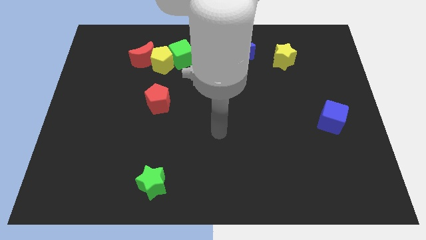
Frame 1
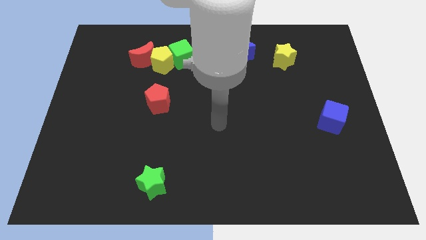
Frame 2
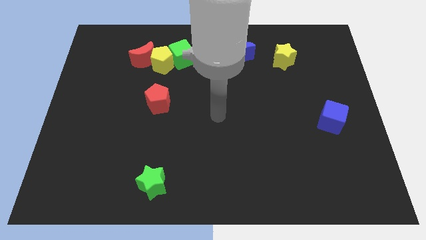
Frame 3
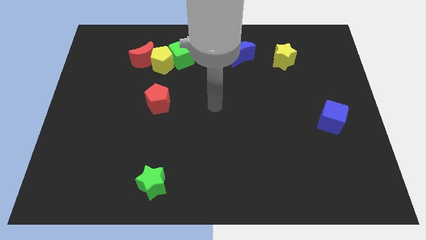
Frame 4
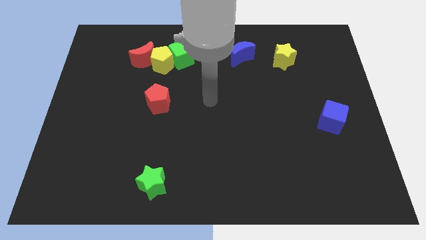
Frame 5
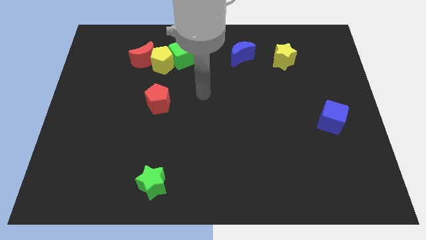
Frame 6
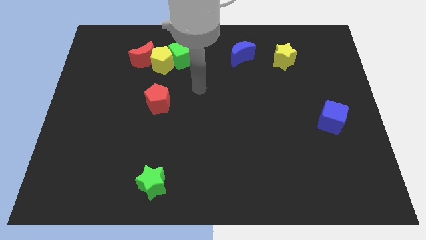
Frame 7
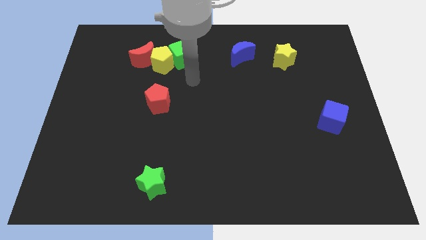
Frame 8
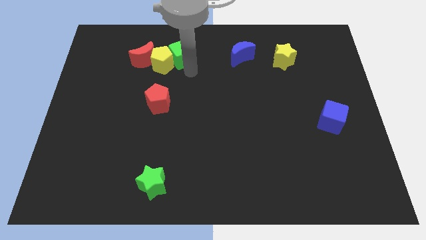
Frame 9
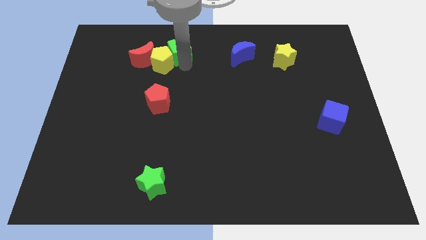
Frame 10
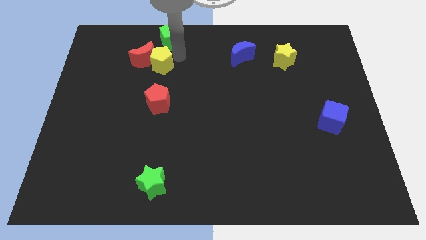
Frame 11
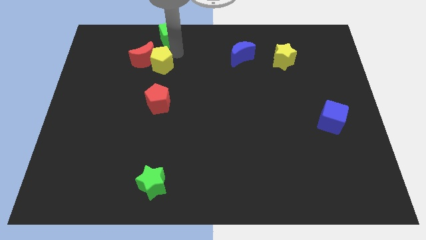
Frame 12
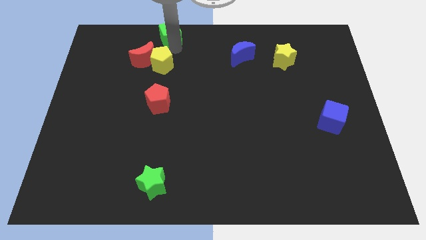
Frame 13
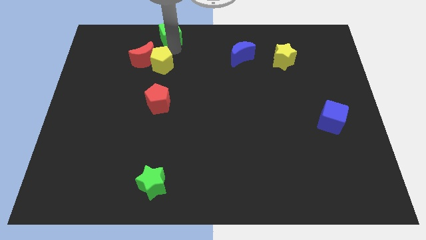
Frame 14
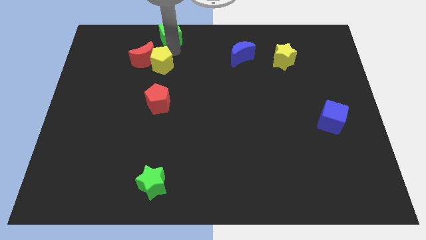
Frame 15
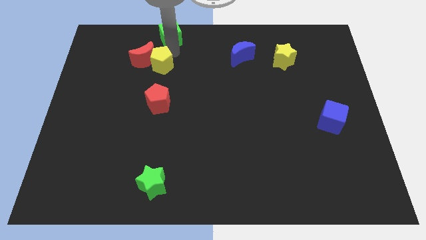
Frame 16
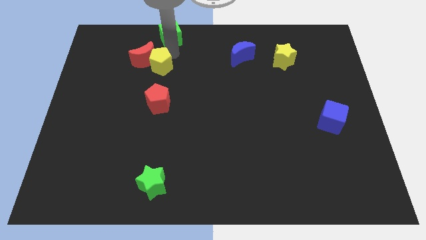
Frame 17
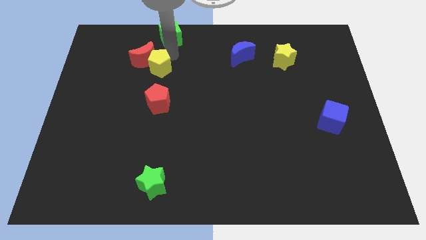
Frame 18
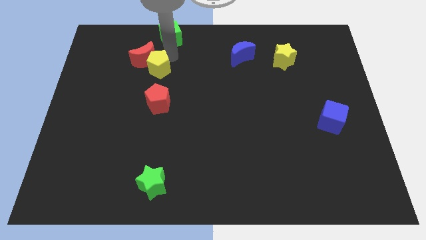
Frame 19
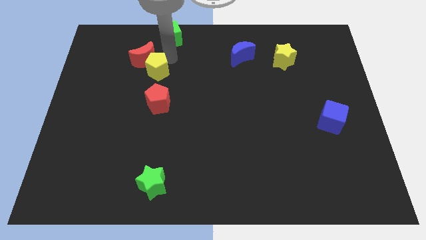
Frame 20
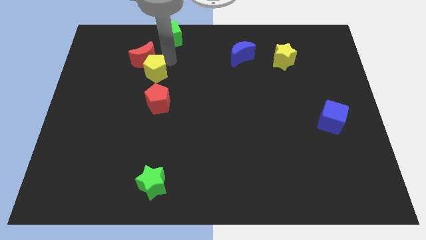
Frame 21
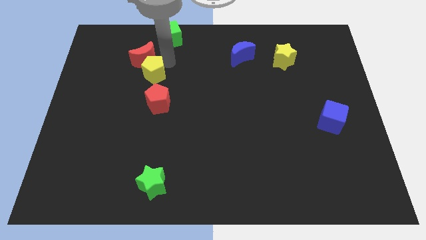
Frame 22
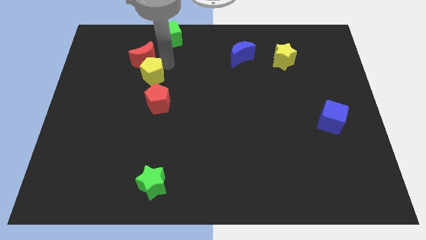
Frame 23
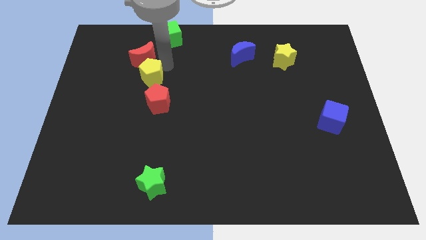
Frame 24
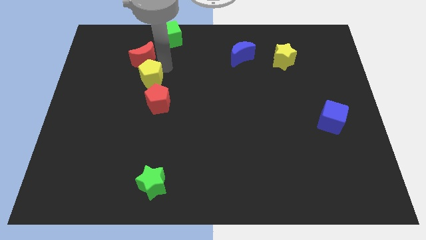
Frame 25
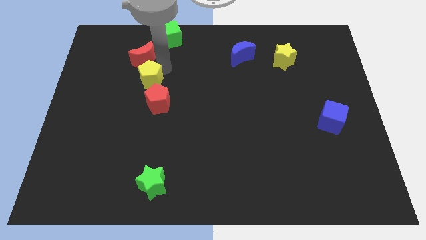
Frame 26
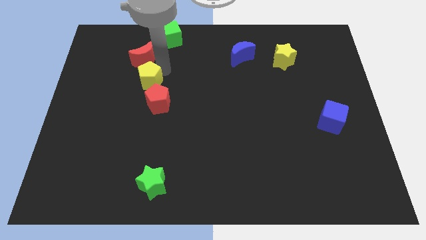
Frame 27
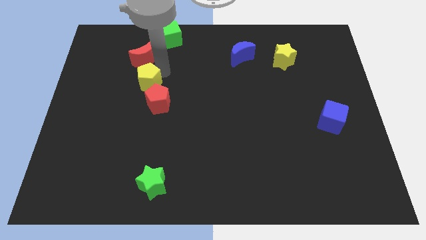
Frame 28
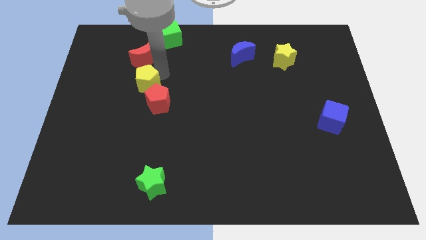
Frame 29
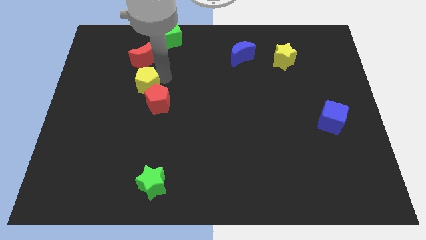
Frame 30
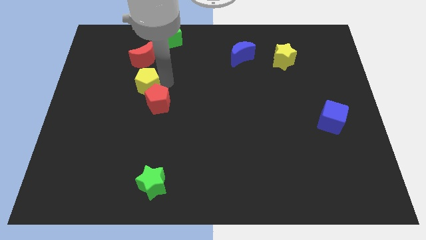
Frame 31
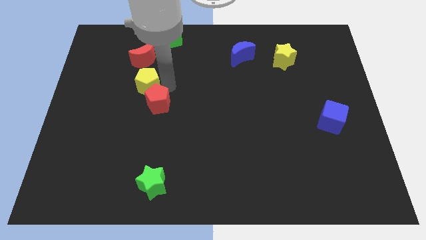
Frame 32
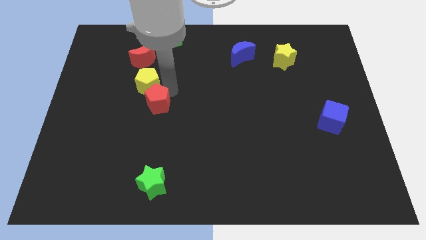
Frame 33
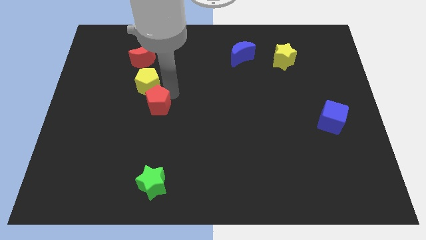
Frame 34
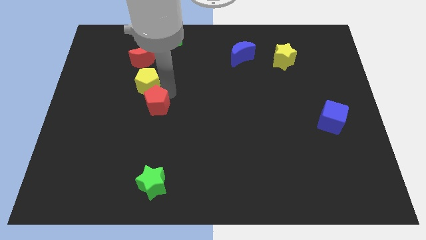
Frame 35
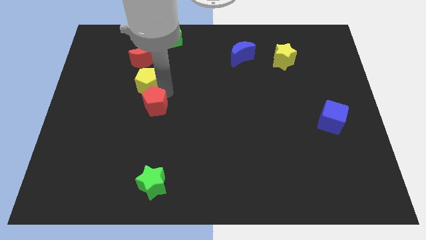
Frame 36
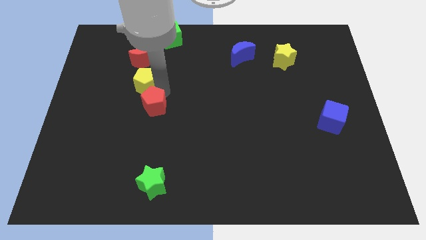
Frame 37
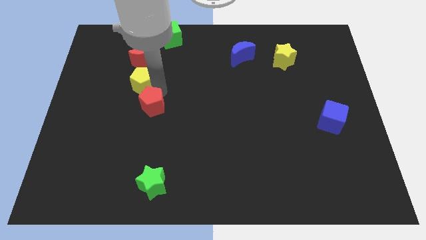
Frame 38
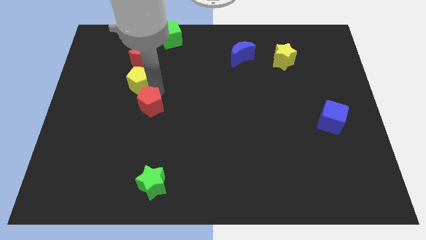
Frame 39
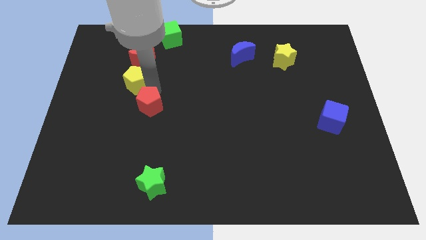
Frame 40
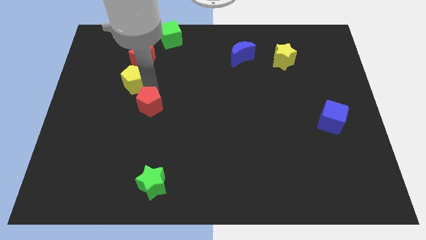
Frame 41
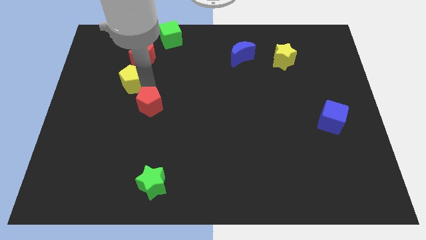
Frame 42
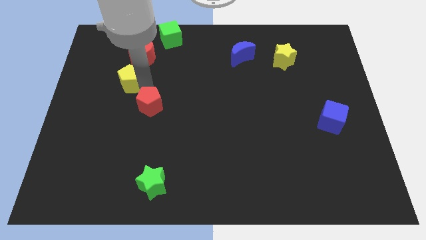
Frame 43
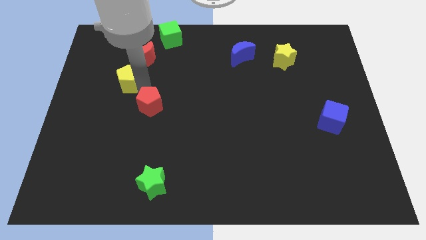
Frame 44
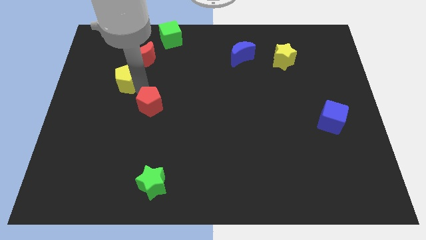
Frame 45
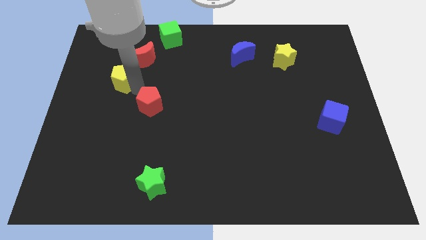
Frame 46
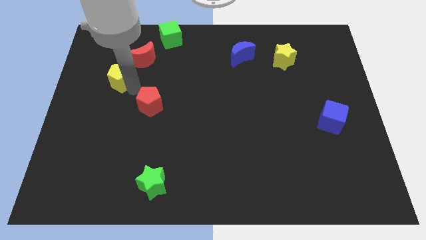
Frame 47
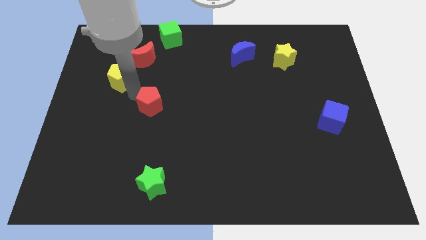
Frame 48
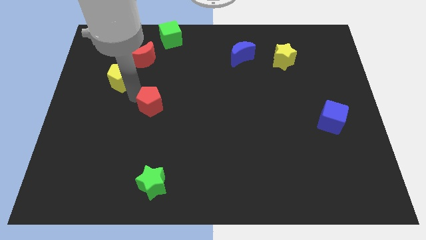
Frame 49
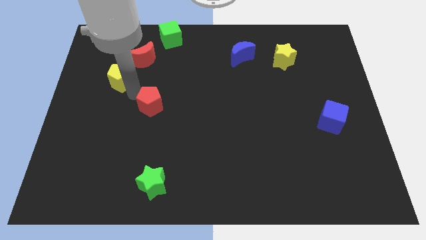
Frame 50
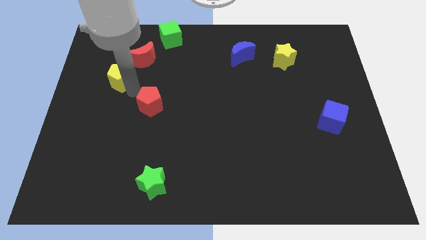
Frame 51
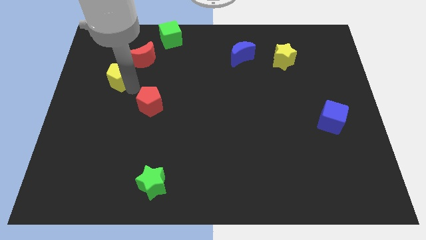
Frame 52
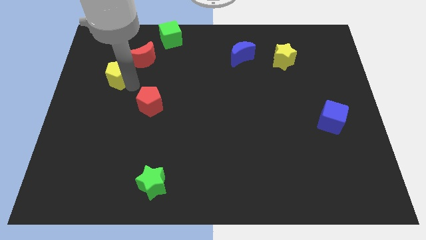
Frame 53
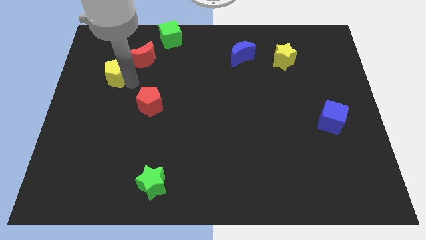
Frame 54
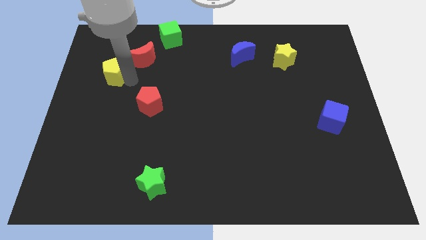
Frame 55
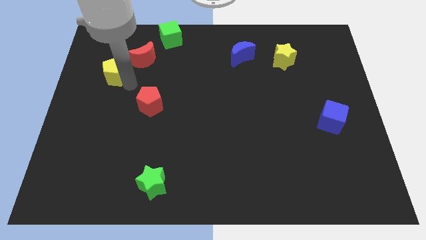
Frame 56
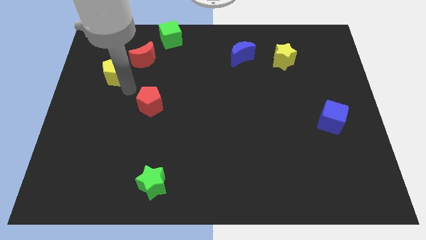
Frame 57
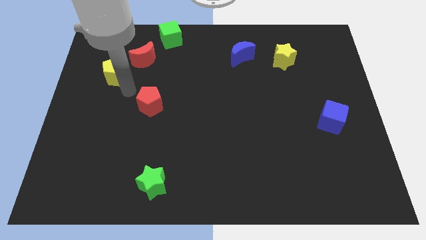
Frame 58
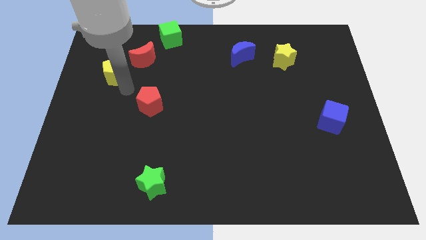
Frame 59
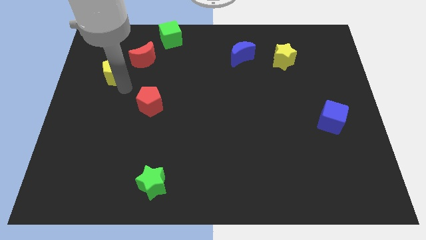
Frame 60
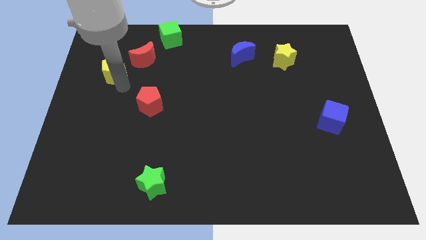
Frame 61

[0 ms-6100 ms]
push the yellow pentagon left of the red moon

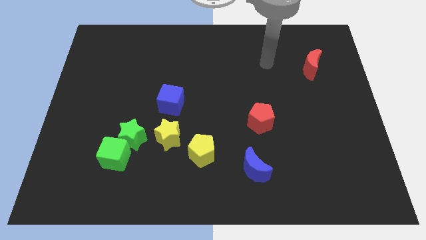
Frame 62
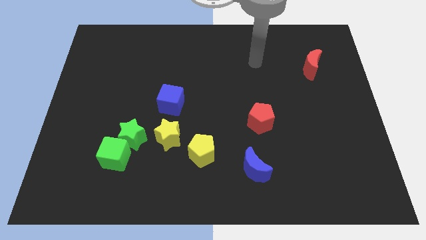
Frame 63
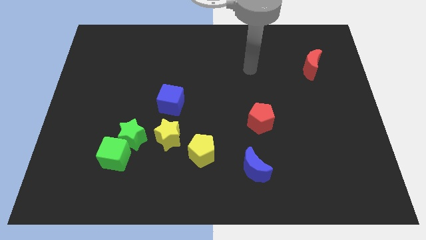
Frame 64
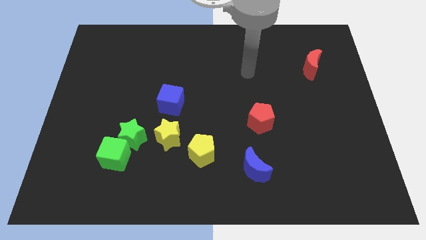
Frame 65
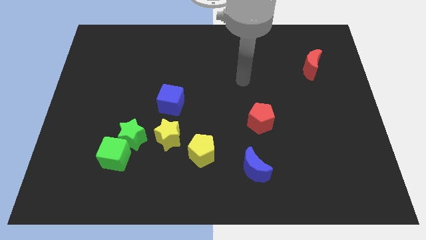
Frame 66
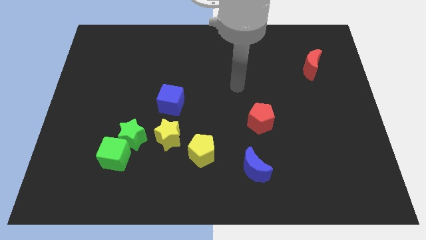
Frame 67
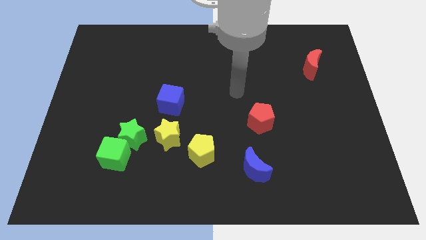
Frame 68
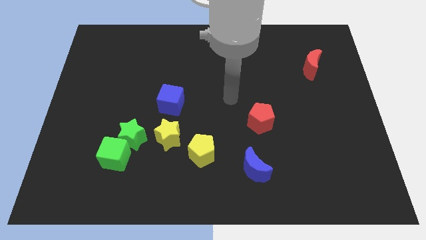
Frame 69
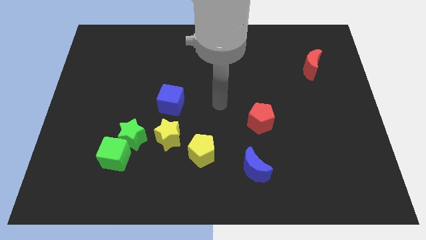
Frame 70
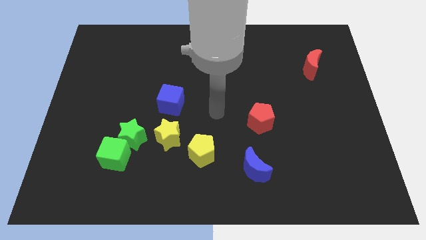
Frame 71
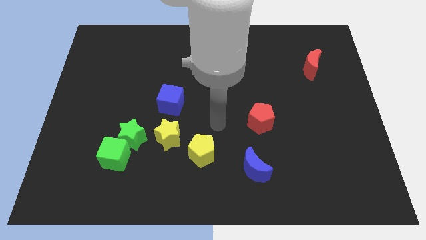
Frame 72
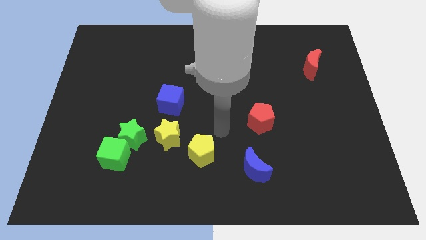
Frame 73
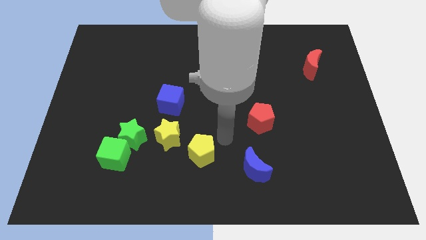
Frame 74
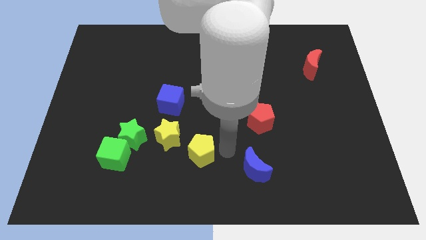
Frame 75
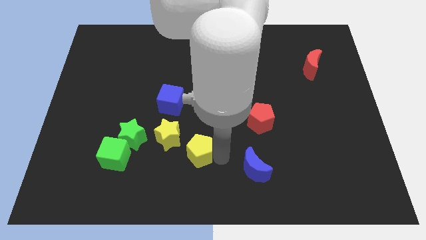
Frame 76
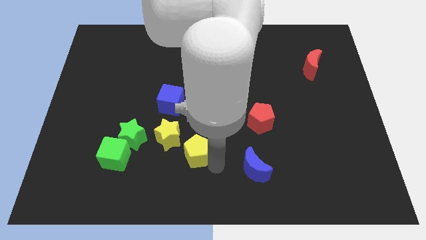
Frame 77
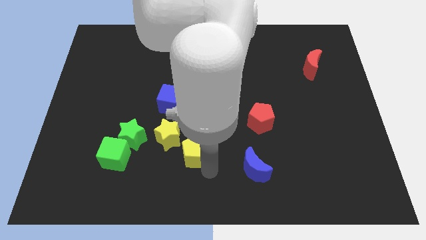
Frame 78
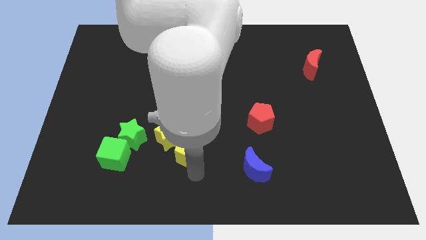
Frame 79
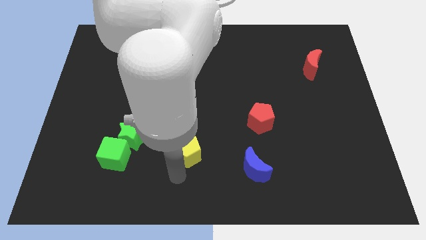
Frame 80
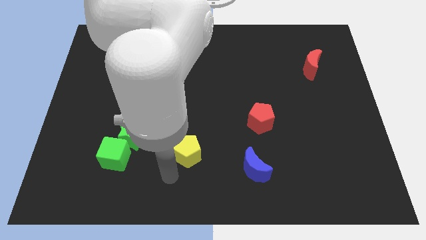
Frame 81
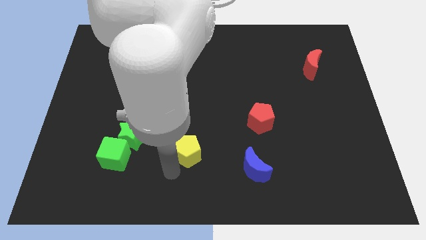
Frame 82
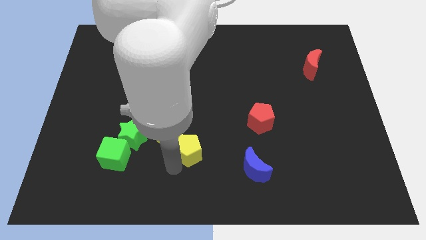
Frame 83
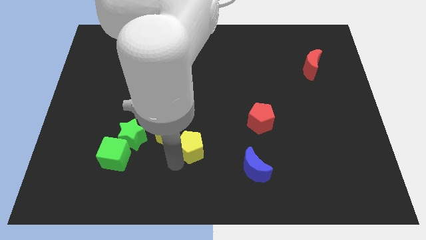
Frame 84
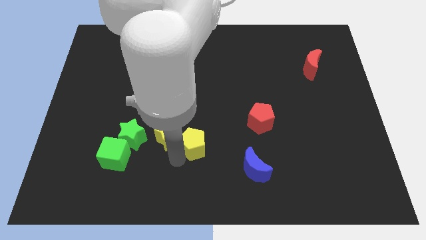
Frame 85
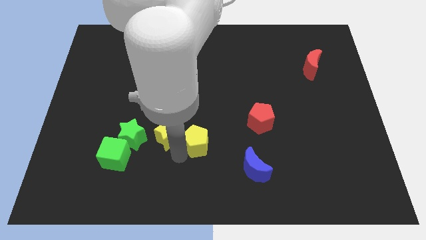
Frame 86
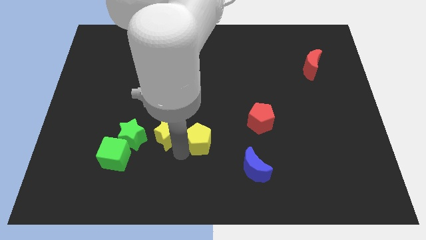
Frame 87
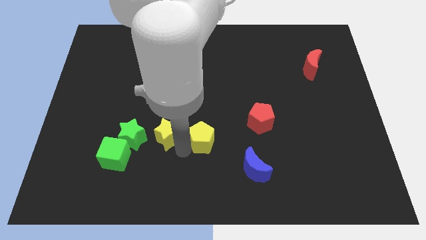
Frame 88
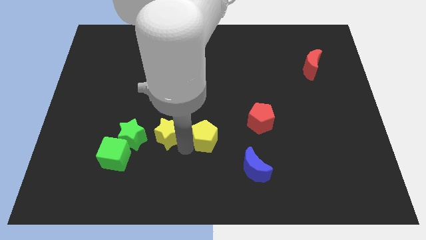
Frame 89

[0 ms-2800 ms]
push the yellow pentagon to the left side of the red pentagon
